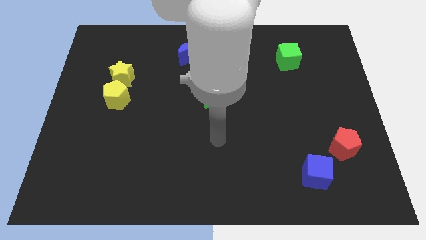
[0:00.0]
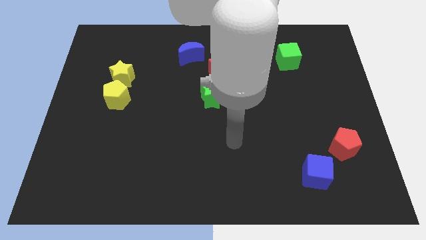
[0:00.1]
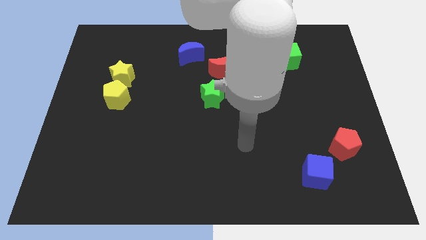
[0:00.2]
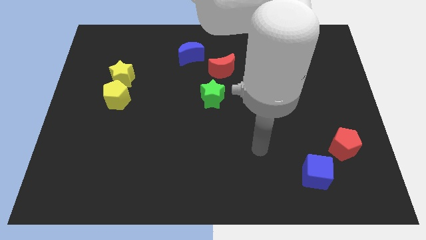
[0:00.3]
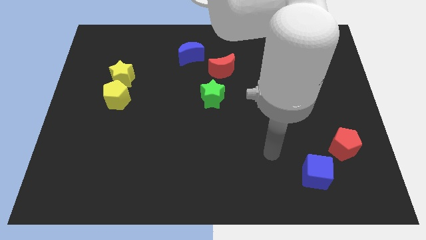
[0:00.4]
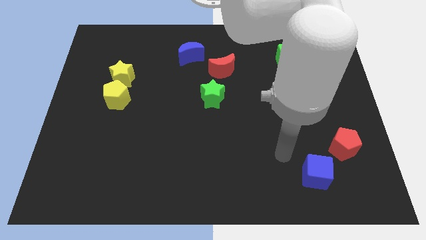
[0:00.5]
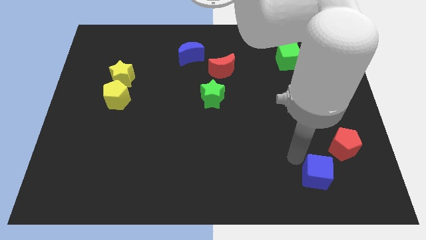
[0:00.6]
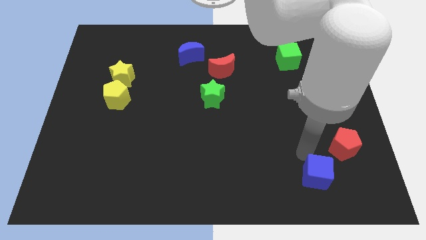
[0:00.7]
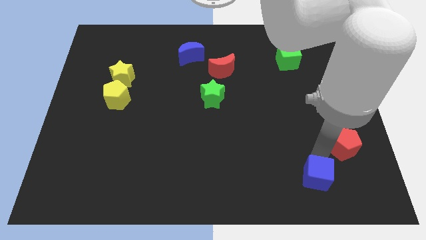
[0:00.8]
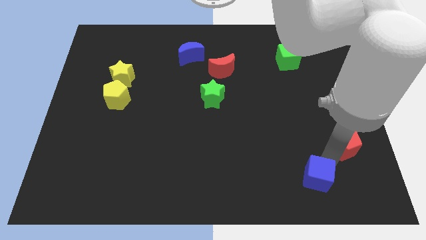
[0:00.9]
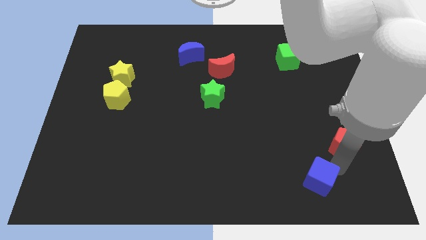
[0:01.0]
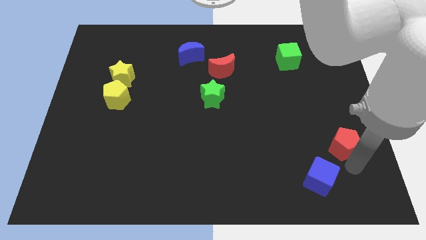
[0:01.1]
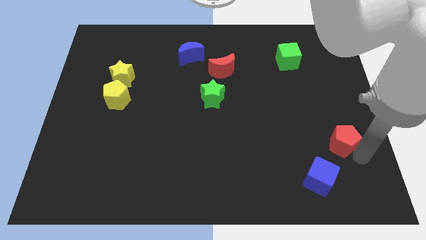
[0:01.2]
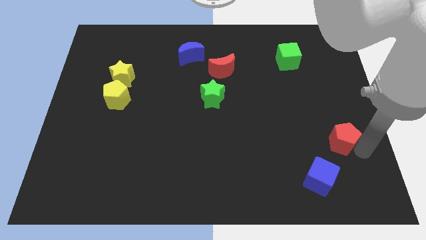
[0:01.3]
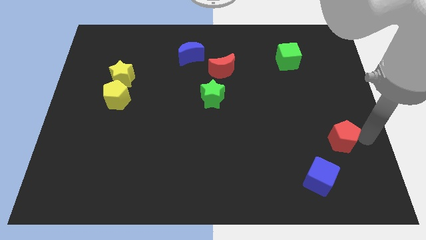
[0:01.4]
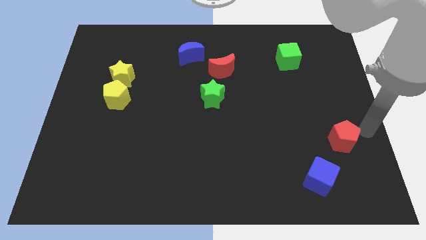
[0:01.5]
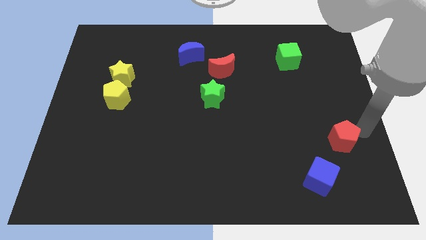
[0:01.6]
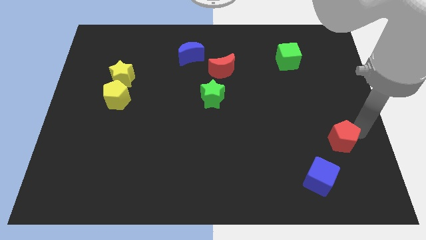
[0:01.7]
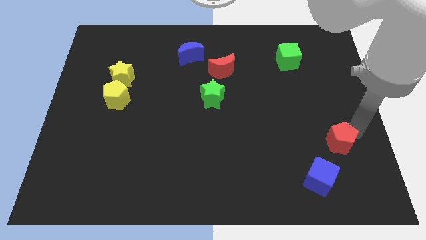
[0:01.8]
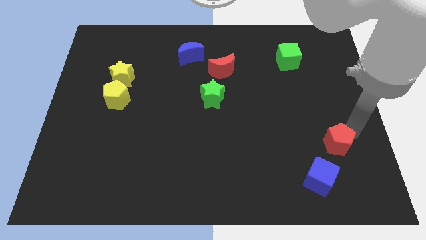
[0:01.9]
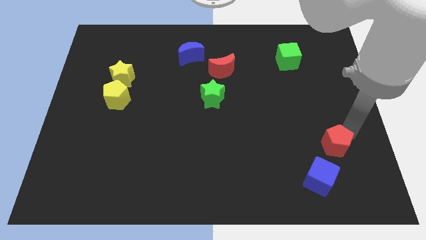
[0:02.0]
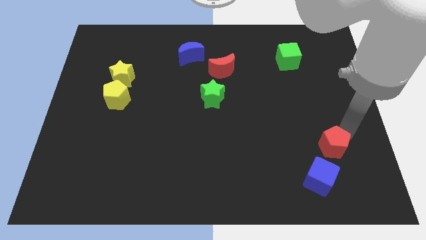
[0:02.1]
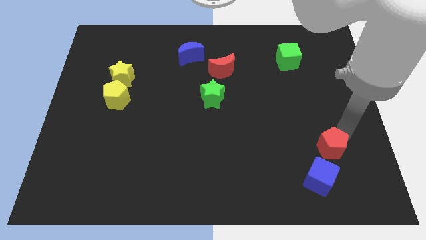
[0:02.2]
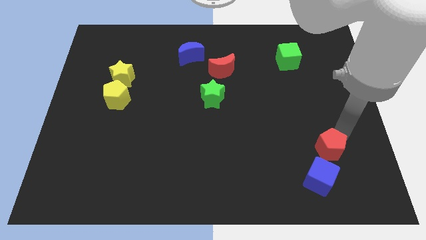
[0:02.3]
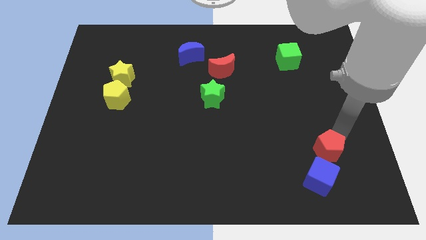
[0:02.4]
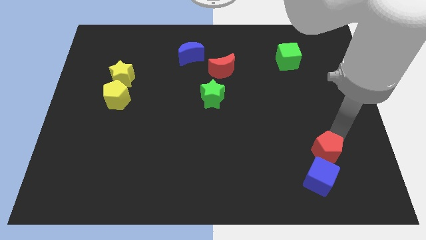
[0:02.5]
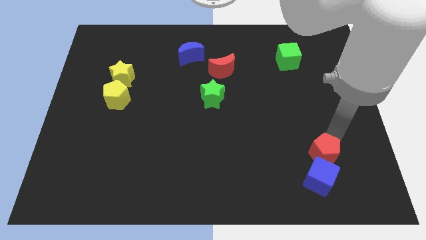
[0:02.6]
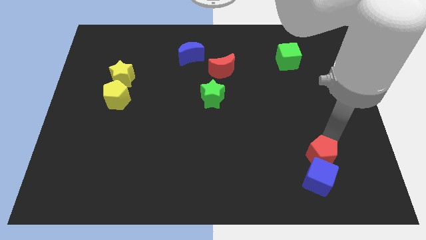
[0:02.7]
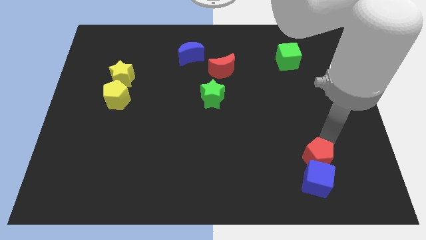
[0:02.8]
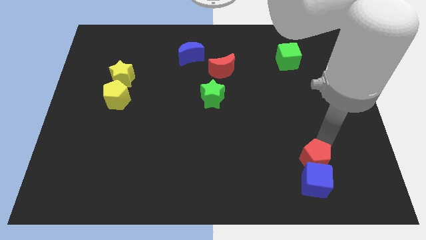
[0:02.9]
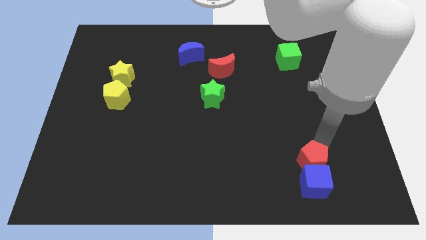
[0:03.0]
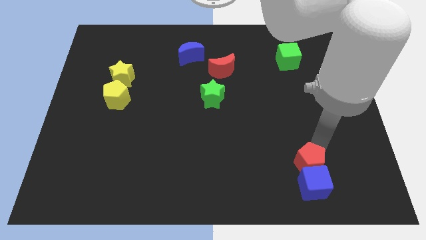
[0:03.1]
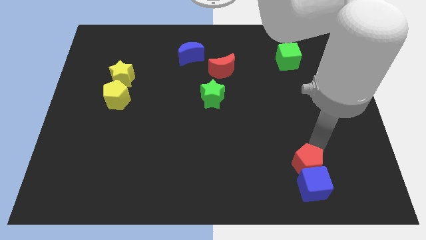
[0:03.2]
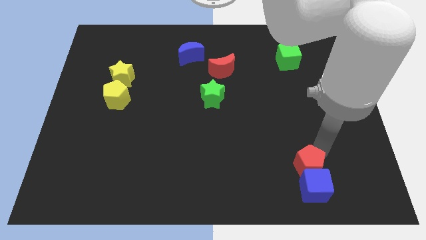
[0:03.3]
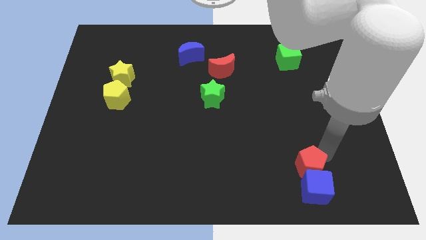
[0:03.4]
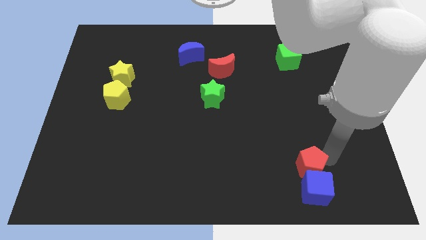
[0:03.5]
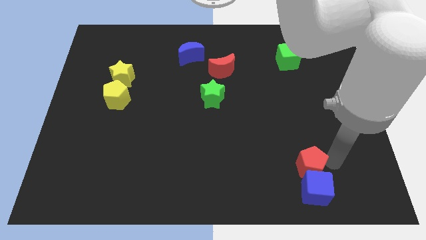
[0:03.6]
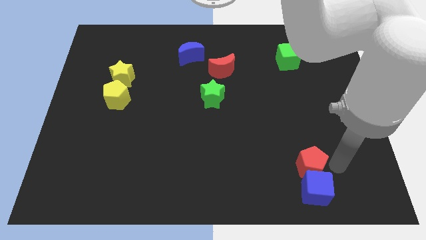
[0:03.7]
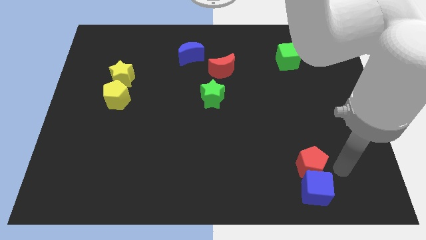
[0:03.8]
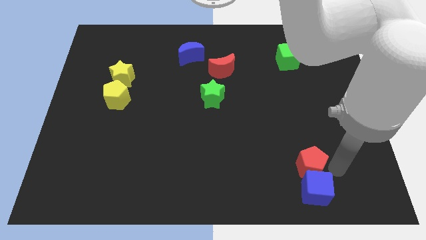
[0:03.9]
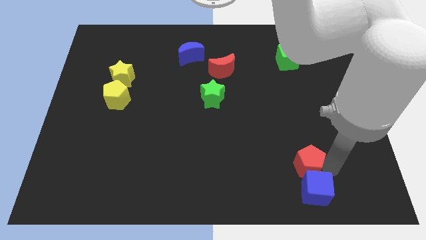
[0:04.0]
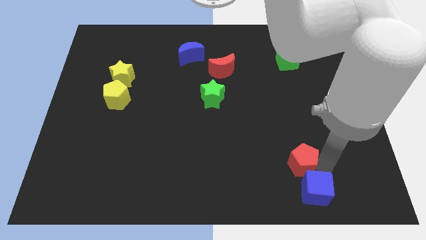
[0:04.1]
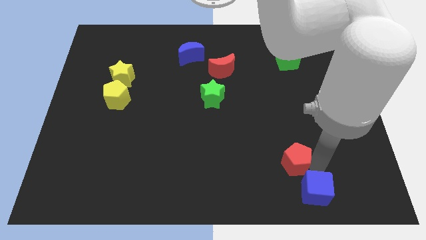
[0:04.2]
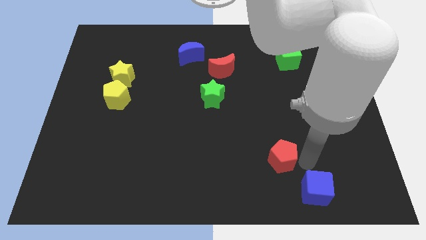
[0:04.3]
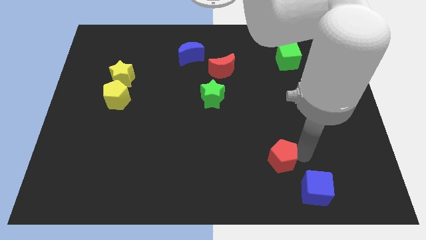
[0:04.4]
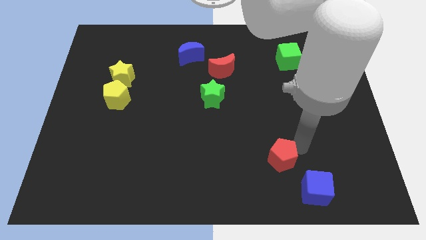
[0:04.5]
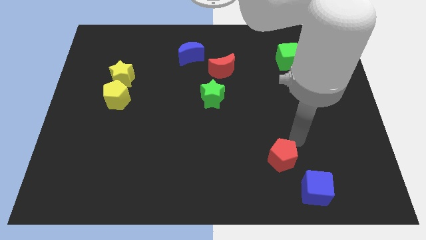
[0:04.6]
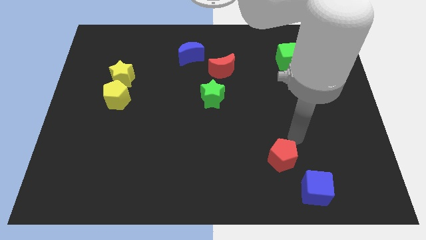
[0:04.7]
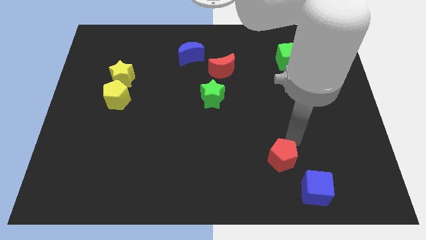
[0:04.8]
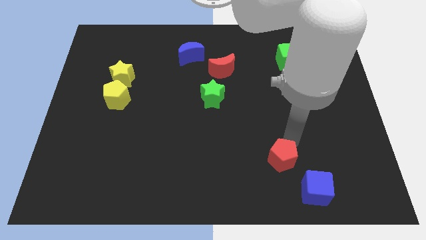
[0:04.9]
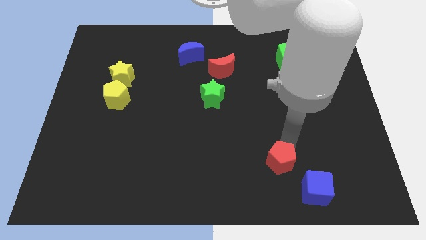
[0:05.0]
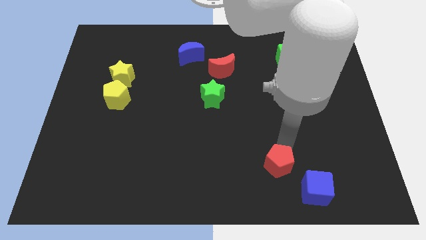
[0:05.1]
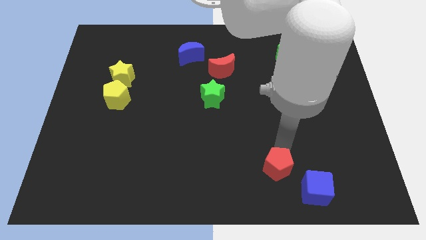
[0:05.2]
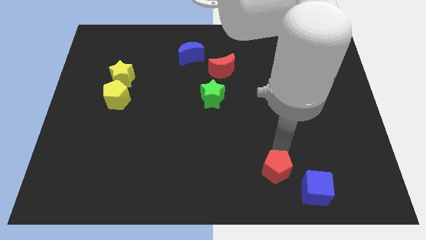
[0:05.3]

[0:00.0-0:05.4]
put the red pentagon left of the blue cube

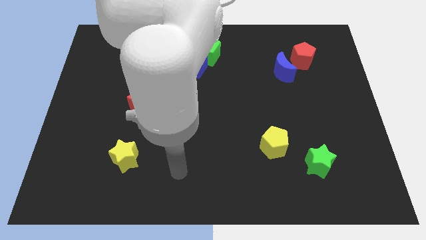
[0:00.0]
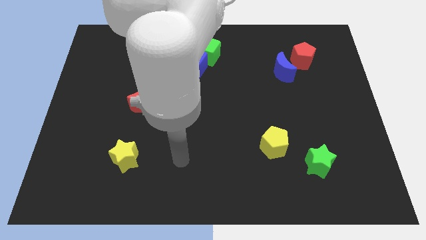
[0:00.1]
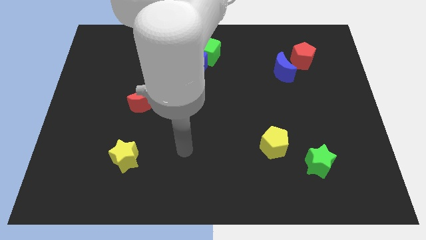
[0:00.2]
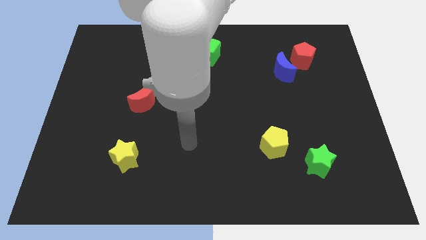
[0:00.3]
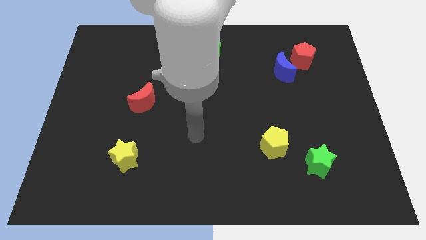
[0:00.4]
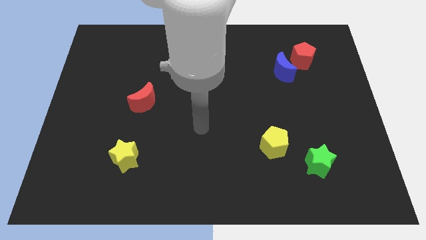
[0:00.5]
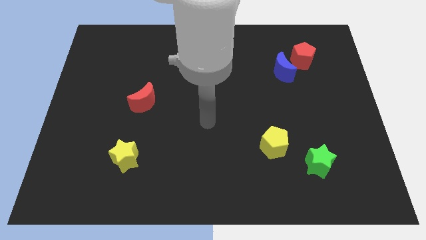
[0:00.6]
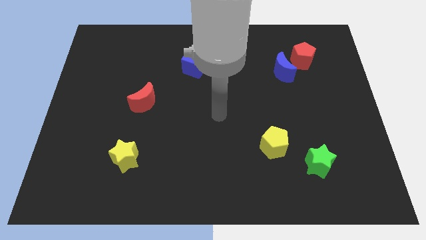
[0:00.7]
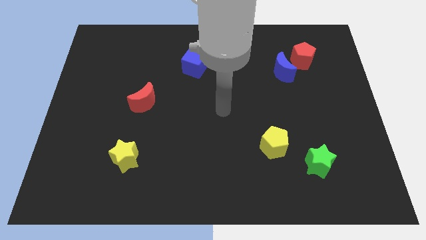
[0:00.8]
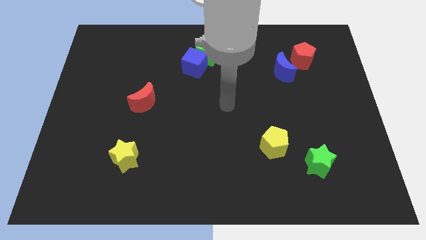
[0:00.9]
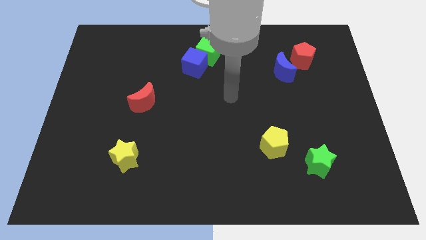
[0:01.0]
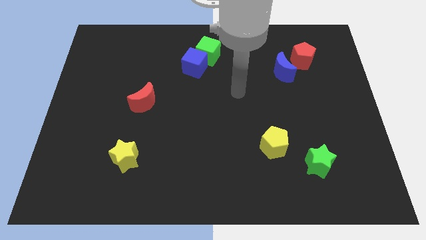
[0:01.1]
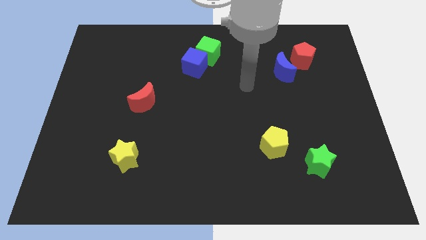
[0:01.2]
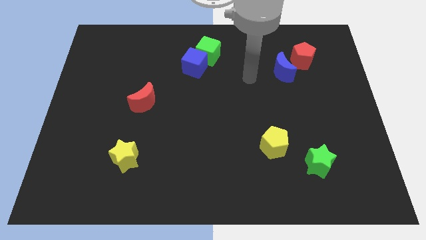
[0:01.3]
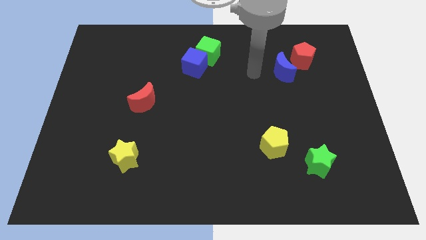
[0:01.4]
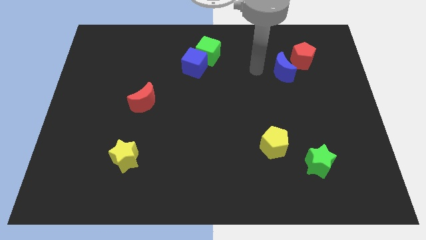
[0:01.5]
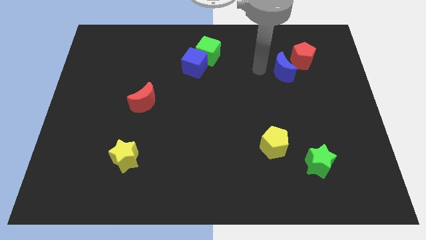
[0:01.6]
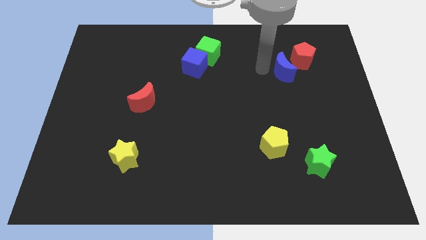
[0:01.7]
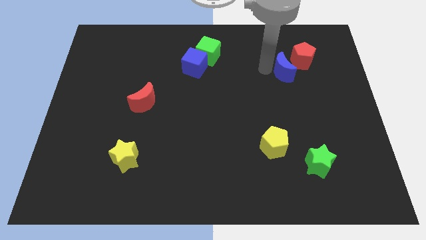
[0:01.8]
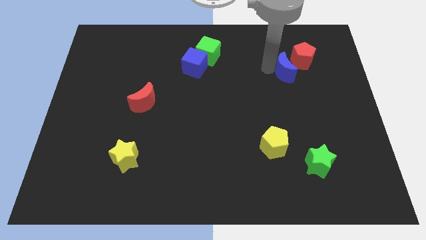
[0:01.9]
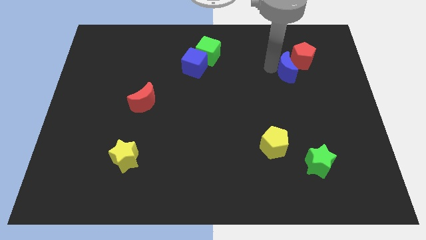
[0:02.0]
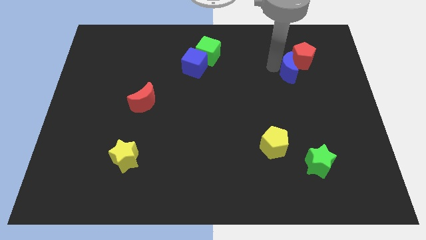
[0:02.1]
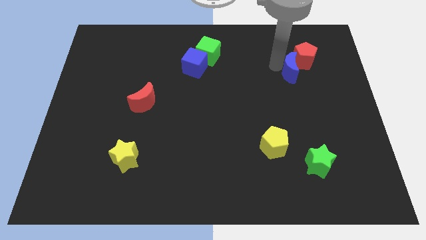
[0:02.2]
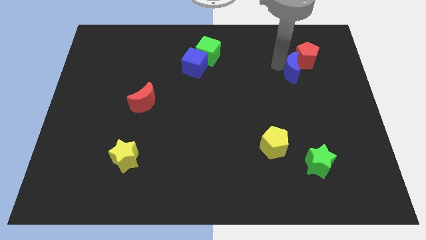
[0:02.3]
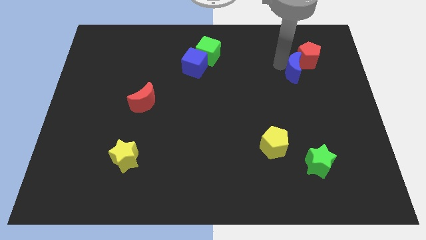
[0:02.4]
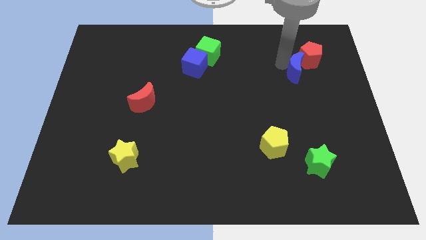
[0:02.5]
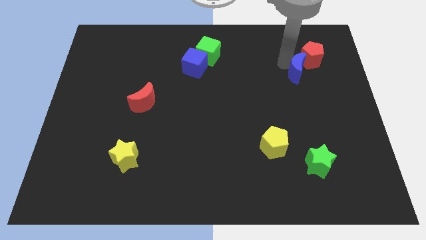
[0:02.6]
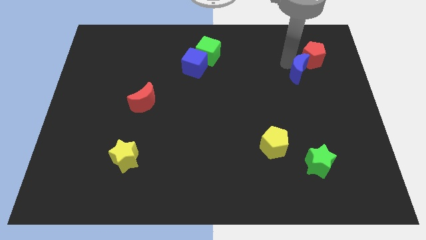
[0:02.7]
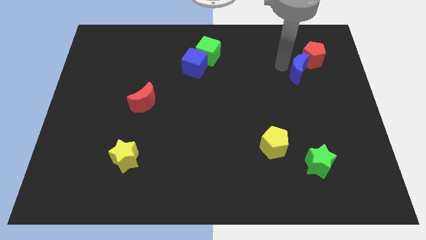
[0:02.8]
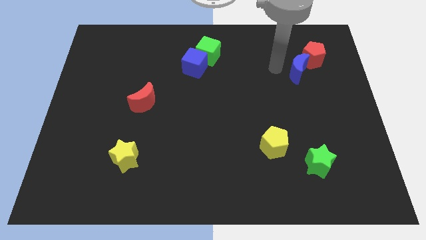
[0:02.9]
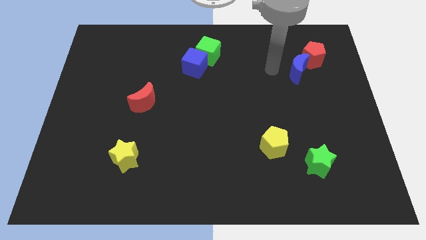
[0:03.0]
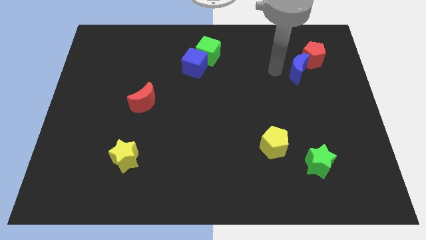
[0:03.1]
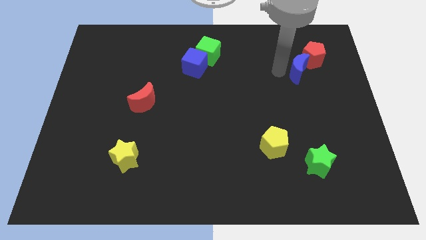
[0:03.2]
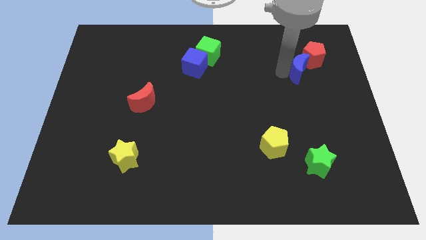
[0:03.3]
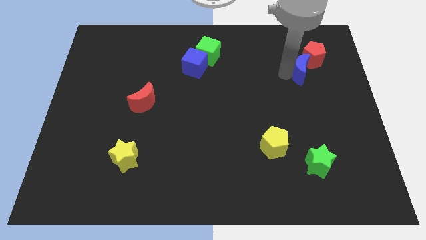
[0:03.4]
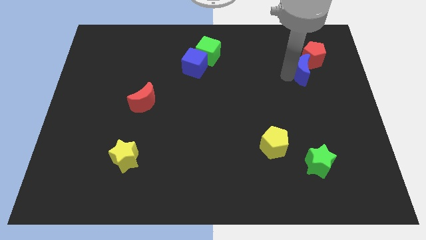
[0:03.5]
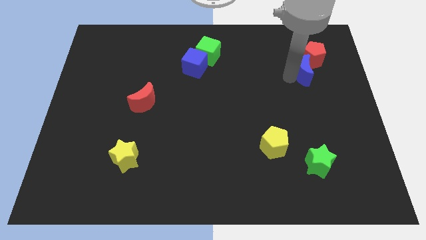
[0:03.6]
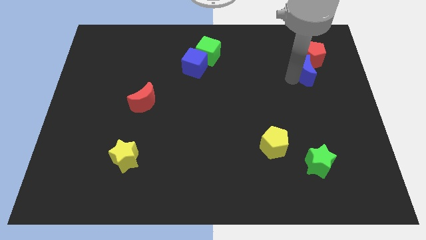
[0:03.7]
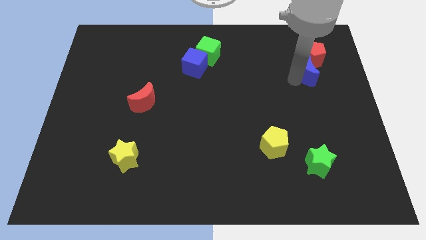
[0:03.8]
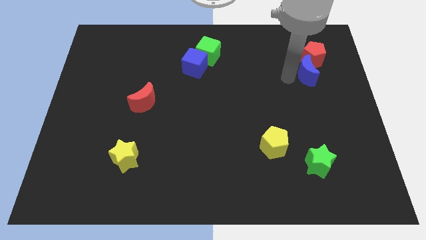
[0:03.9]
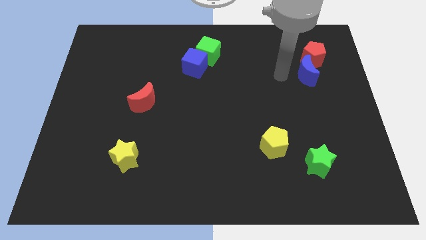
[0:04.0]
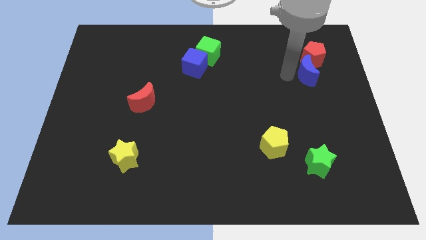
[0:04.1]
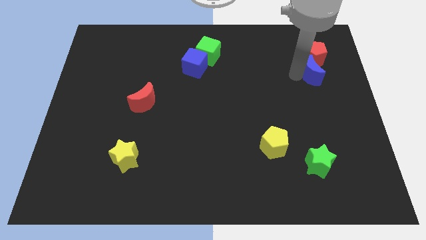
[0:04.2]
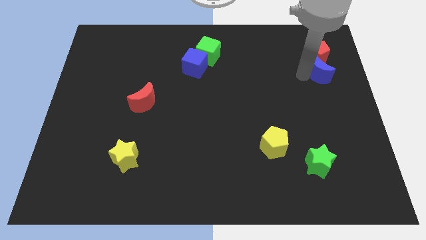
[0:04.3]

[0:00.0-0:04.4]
push the blue moon to the bottom right side of the red pentagon
